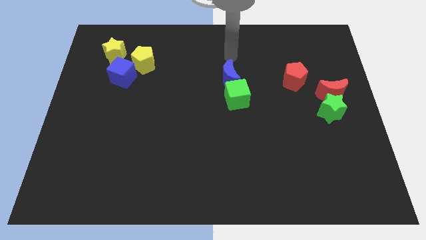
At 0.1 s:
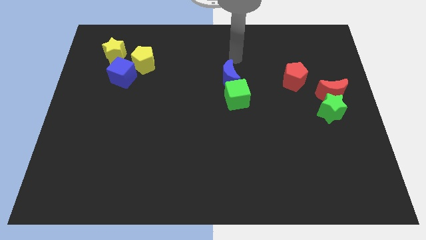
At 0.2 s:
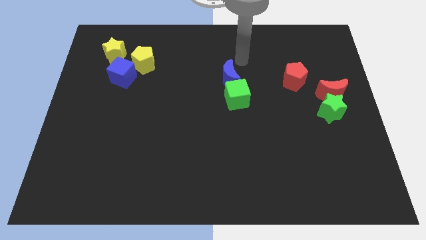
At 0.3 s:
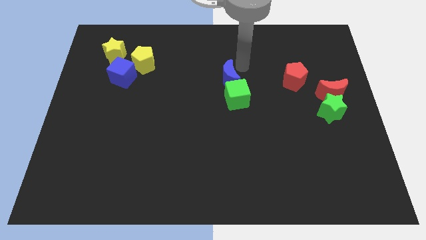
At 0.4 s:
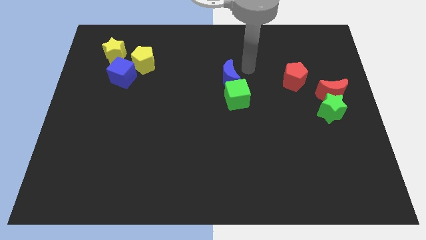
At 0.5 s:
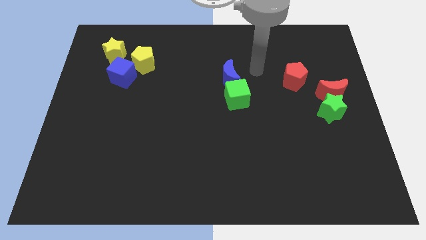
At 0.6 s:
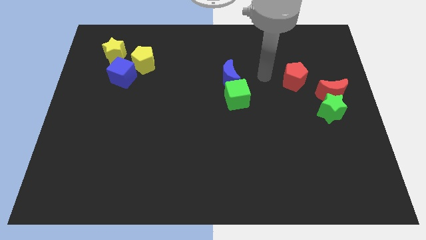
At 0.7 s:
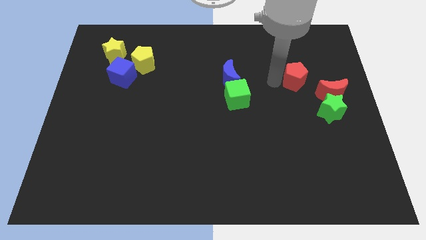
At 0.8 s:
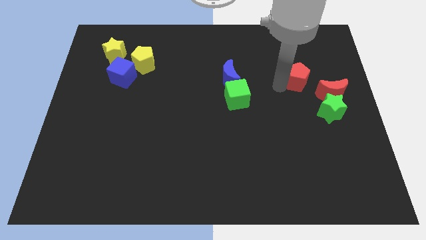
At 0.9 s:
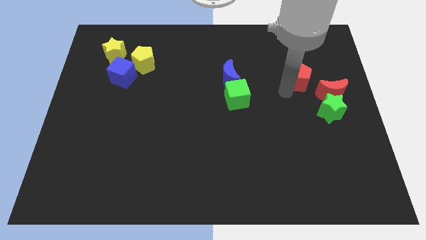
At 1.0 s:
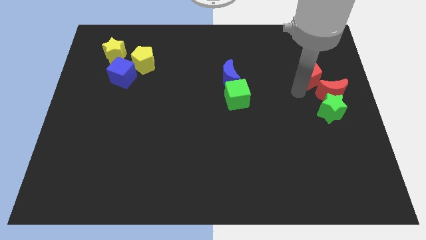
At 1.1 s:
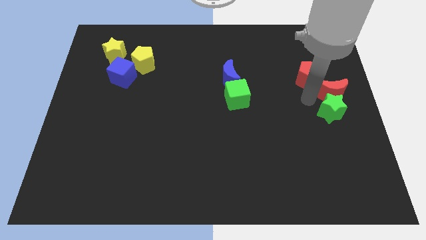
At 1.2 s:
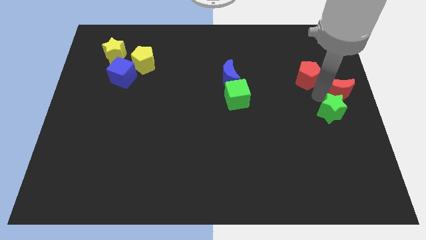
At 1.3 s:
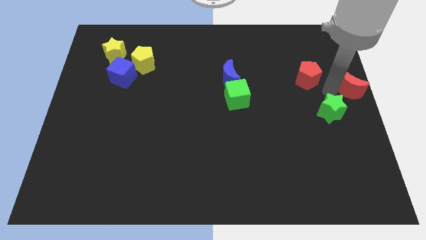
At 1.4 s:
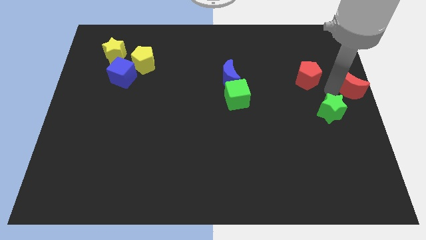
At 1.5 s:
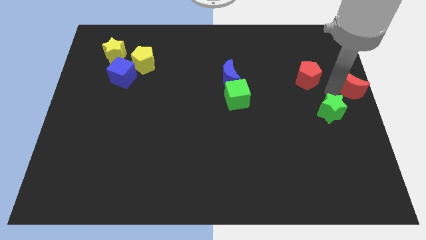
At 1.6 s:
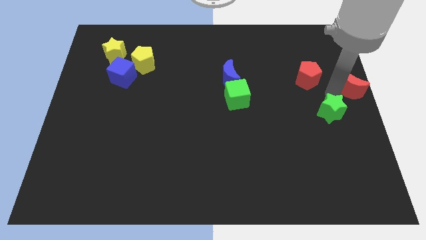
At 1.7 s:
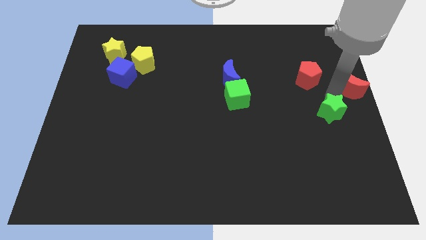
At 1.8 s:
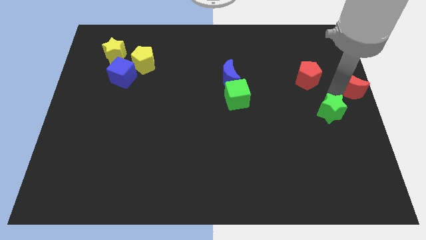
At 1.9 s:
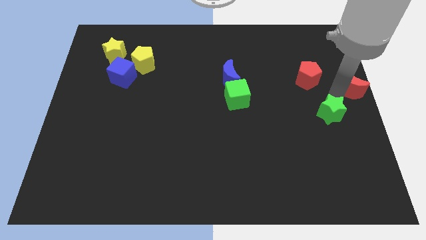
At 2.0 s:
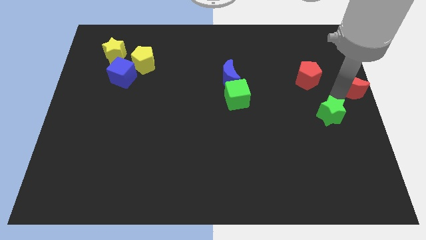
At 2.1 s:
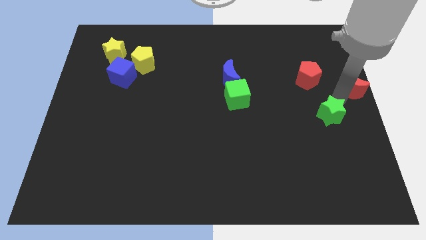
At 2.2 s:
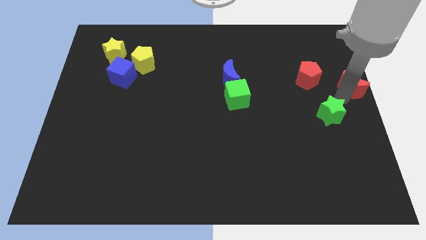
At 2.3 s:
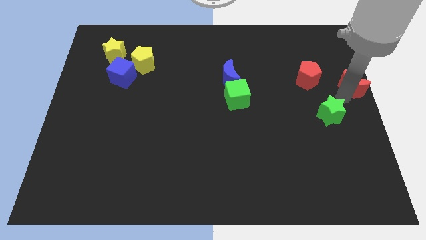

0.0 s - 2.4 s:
pull the green star apart from the red moon

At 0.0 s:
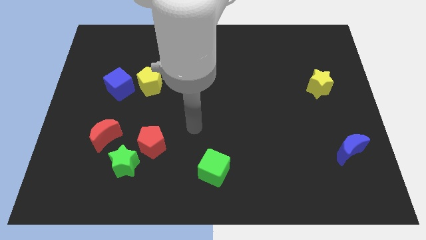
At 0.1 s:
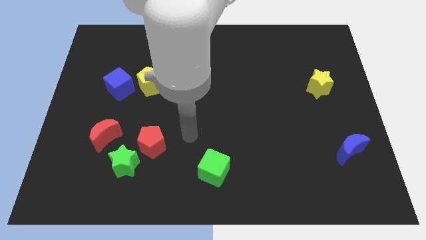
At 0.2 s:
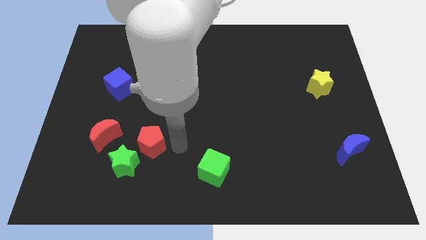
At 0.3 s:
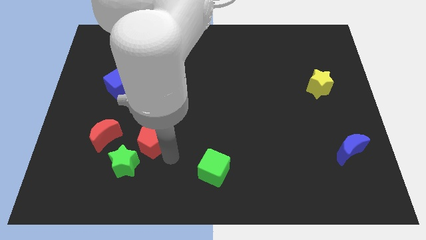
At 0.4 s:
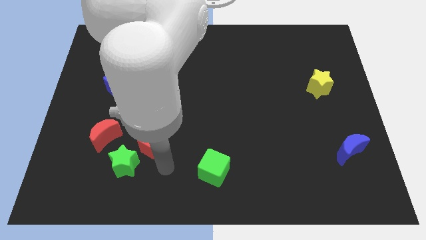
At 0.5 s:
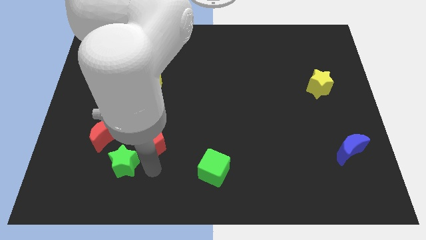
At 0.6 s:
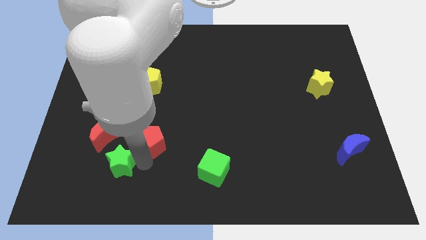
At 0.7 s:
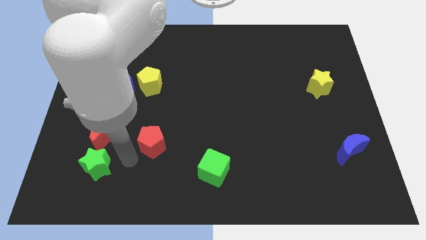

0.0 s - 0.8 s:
separate the red pentagon from the green star

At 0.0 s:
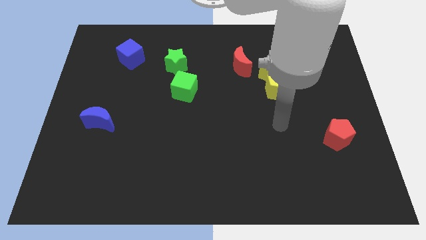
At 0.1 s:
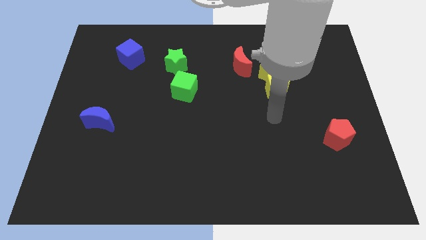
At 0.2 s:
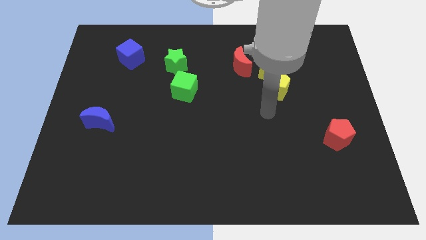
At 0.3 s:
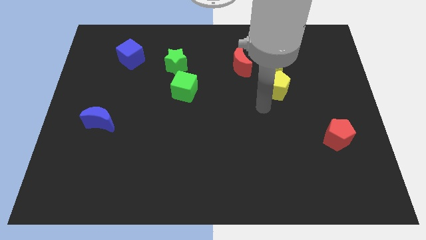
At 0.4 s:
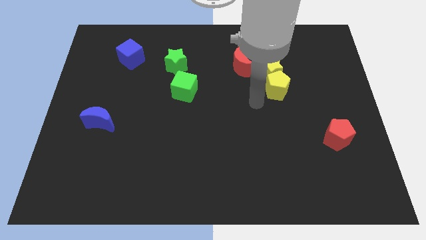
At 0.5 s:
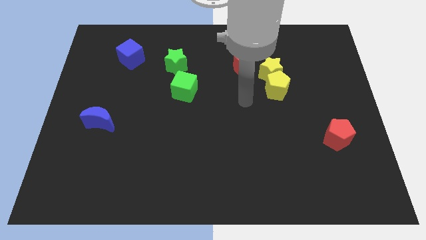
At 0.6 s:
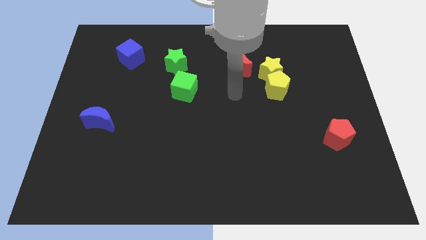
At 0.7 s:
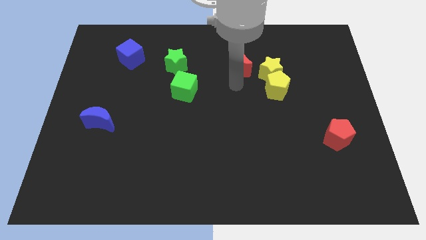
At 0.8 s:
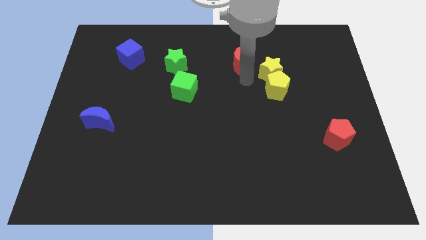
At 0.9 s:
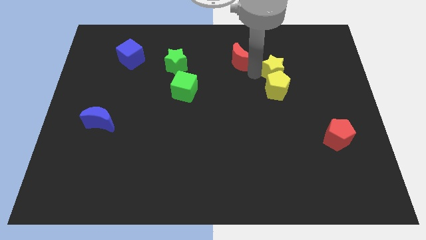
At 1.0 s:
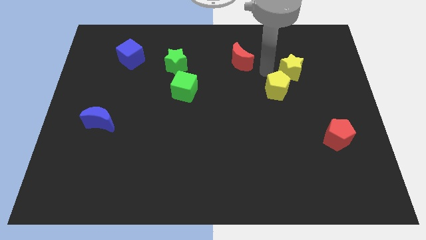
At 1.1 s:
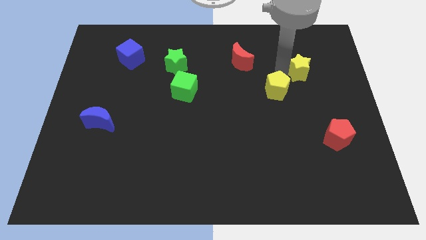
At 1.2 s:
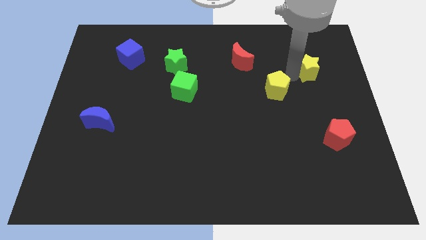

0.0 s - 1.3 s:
move the yellow pentagon away from the yellow star

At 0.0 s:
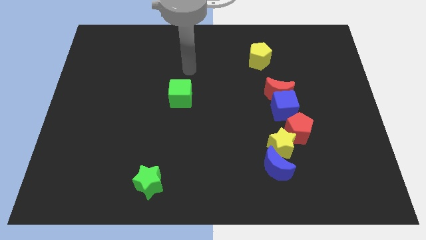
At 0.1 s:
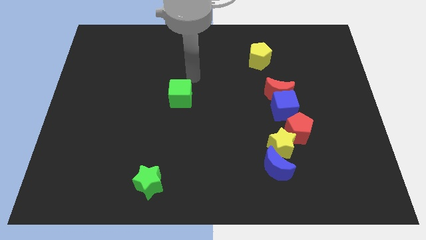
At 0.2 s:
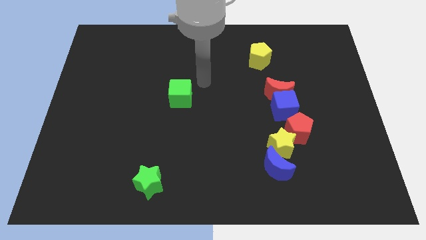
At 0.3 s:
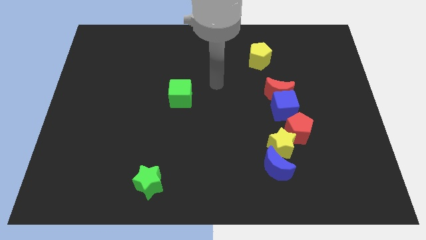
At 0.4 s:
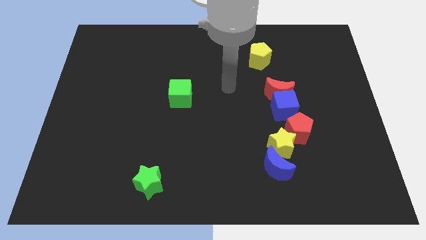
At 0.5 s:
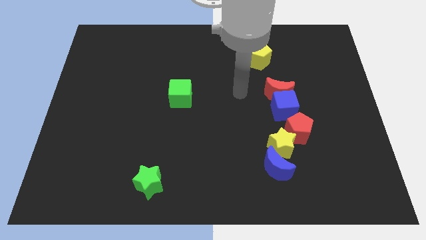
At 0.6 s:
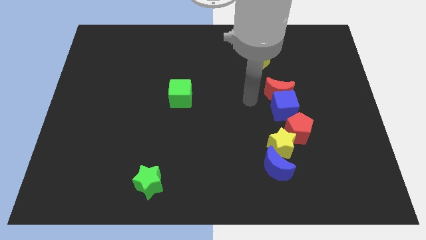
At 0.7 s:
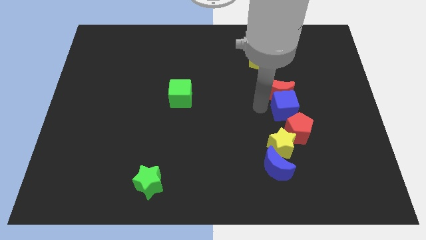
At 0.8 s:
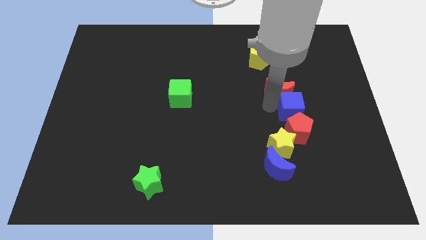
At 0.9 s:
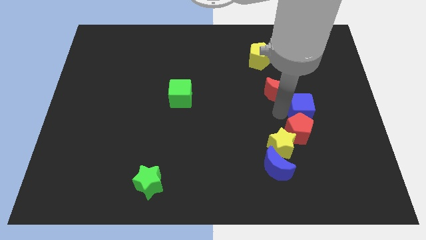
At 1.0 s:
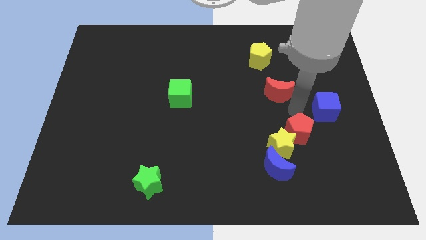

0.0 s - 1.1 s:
move the red moon away from the blue cube

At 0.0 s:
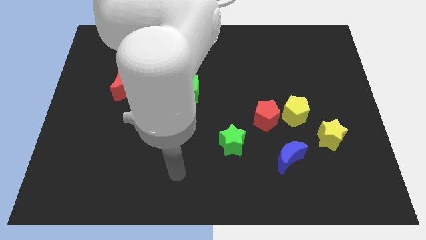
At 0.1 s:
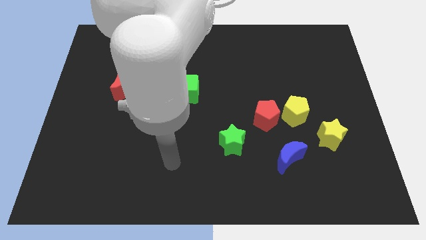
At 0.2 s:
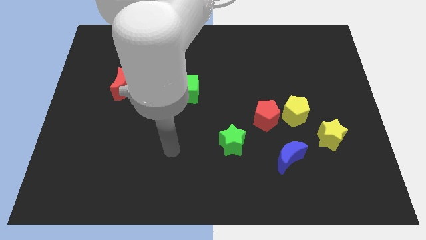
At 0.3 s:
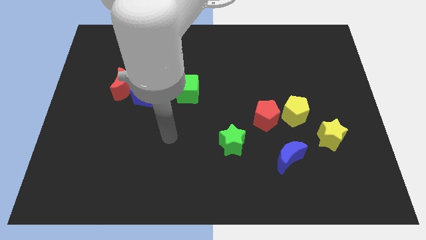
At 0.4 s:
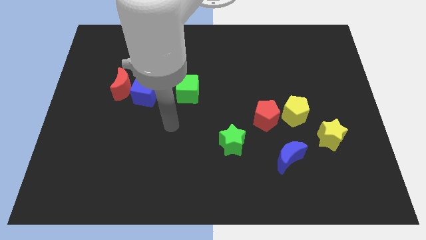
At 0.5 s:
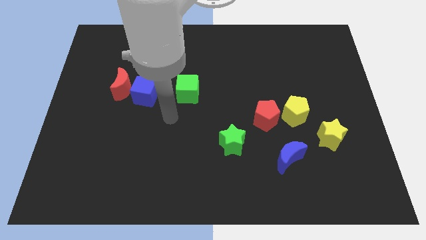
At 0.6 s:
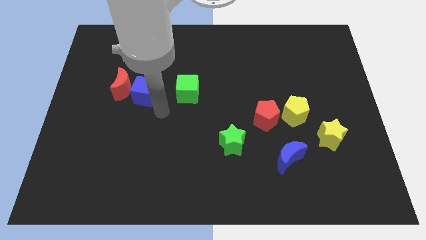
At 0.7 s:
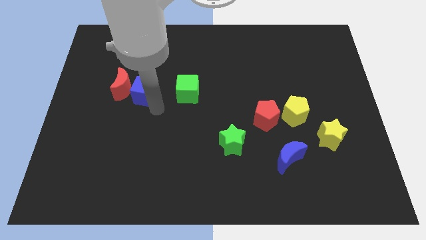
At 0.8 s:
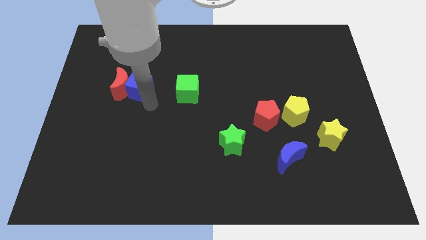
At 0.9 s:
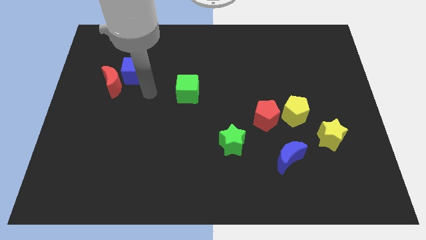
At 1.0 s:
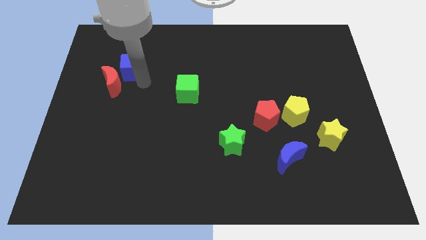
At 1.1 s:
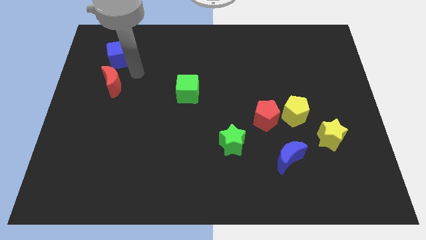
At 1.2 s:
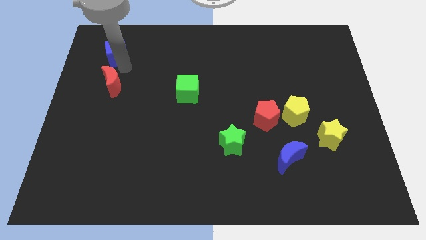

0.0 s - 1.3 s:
separate the red moon from the blue cube

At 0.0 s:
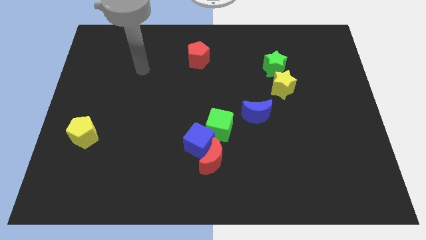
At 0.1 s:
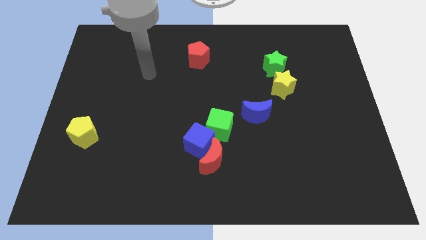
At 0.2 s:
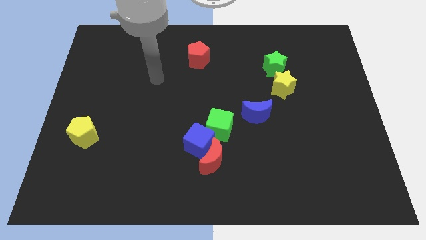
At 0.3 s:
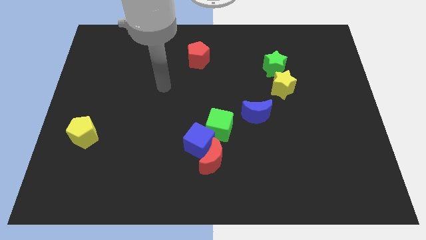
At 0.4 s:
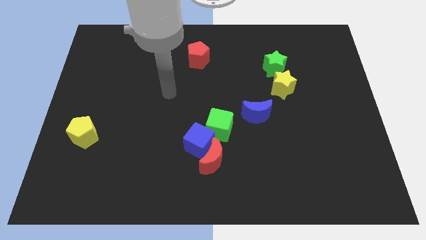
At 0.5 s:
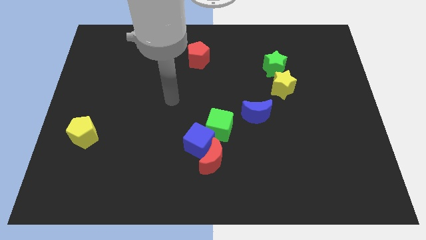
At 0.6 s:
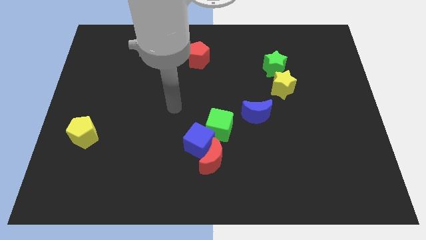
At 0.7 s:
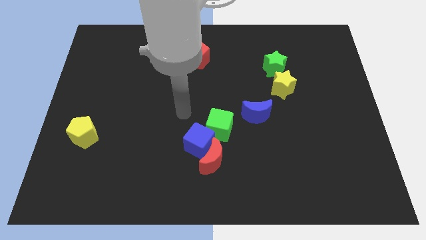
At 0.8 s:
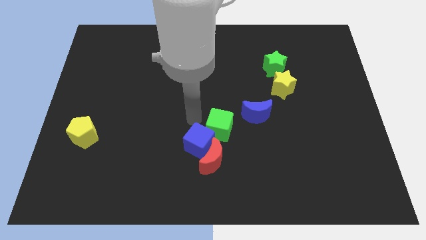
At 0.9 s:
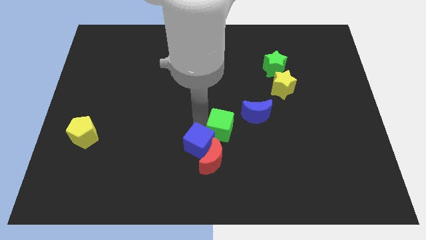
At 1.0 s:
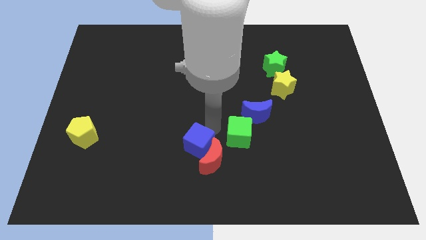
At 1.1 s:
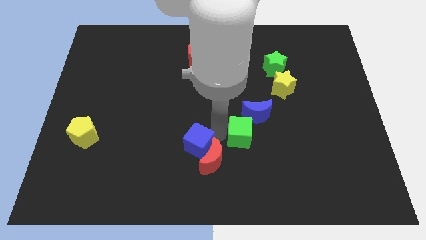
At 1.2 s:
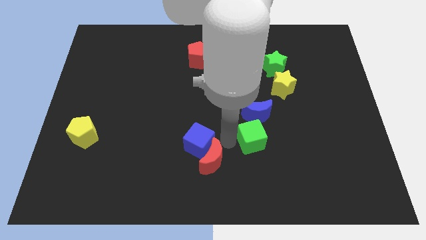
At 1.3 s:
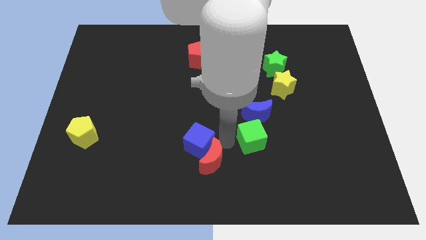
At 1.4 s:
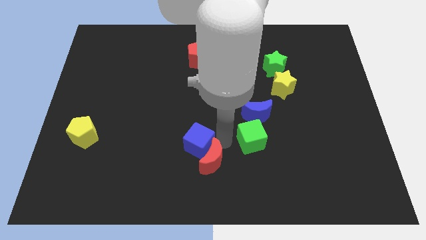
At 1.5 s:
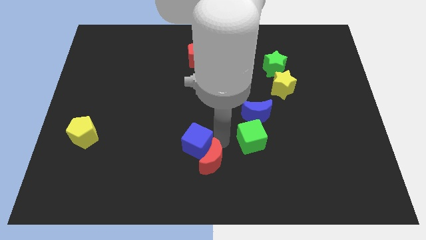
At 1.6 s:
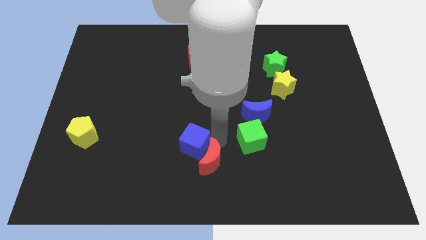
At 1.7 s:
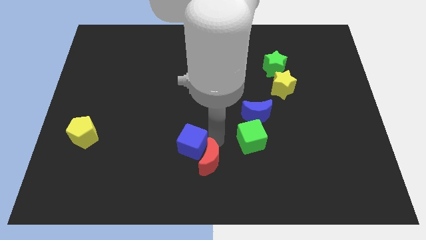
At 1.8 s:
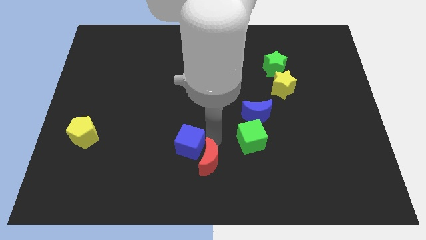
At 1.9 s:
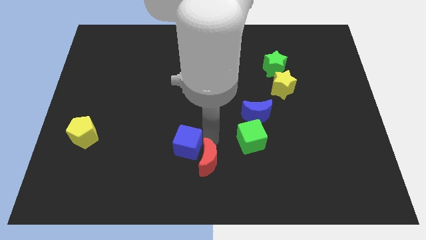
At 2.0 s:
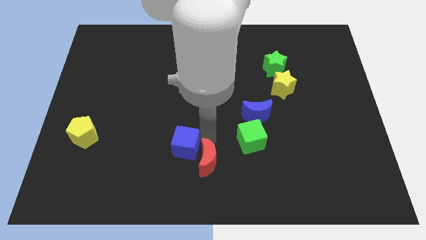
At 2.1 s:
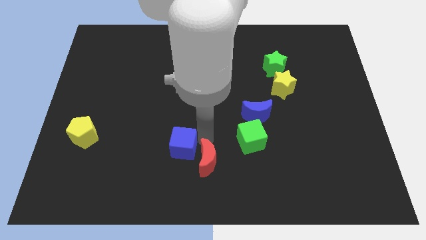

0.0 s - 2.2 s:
pull the blue cube apart from the red moon and green cube

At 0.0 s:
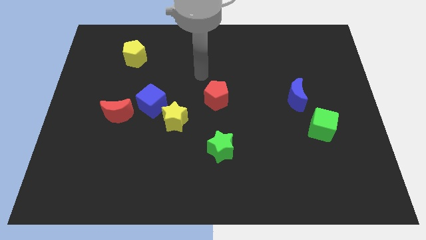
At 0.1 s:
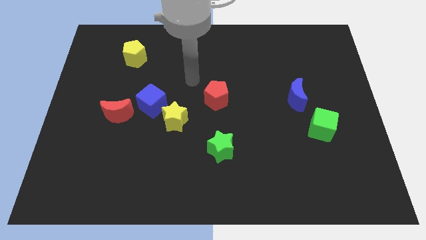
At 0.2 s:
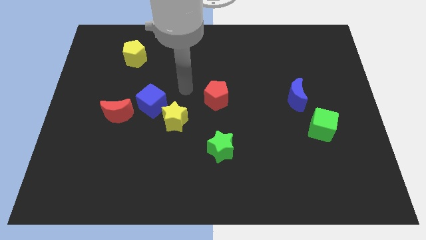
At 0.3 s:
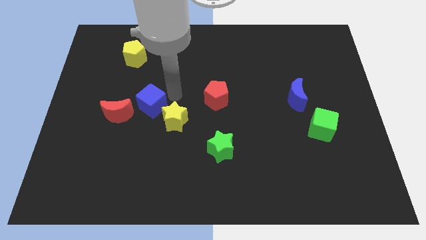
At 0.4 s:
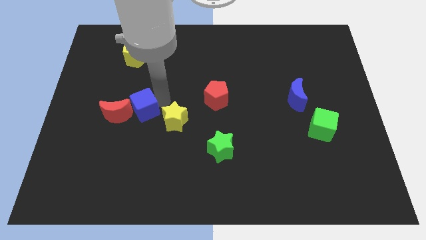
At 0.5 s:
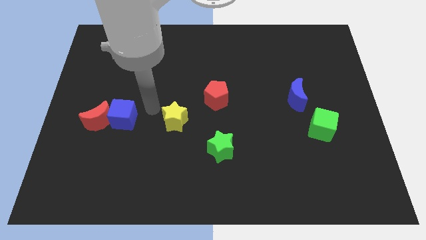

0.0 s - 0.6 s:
pull the yellow star apart from the blue cube
